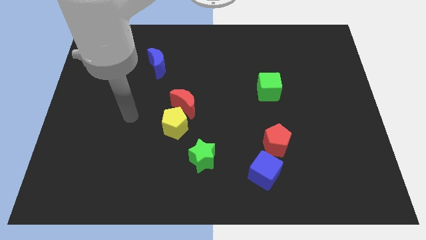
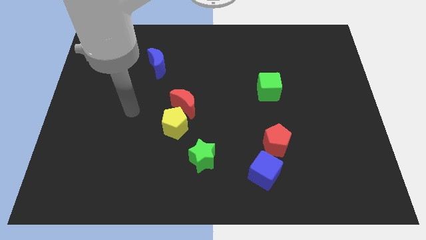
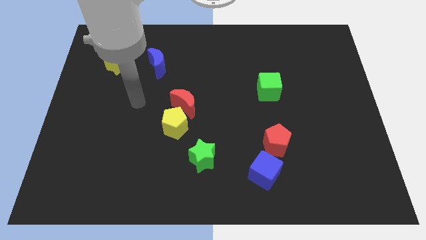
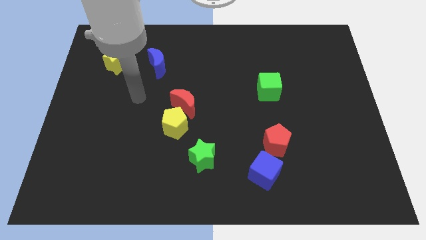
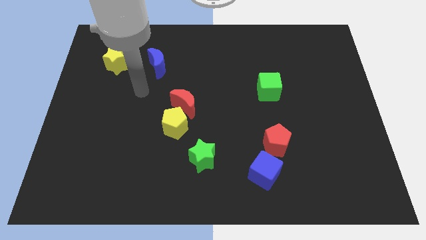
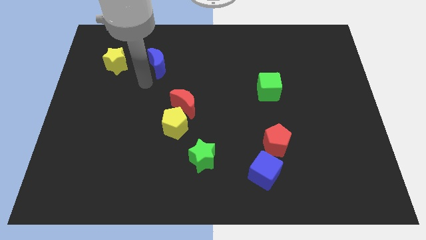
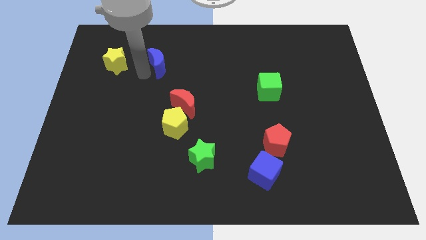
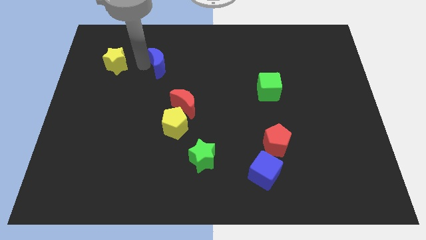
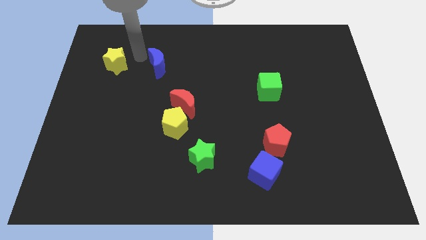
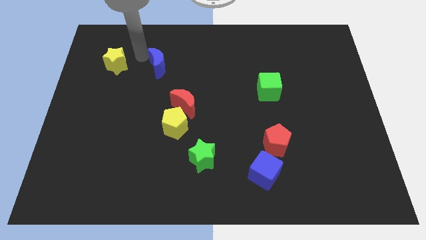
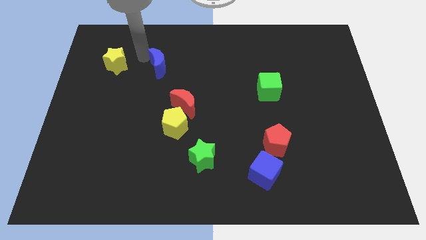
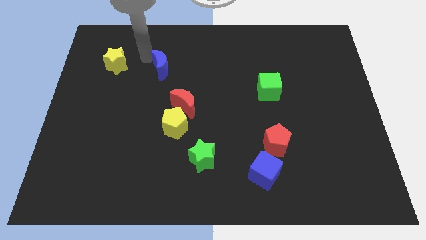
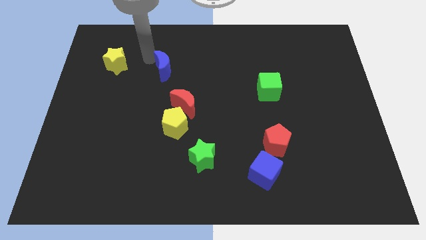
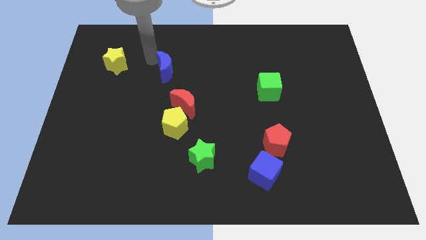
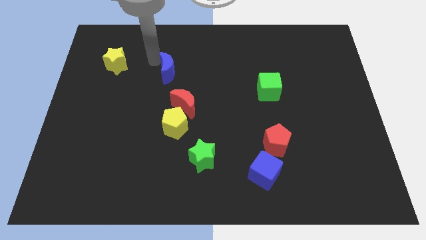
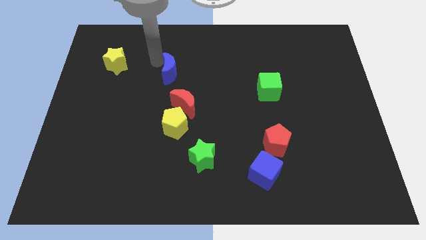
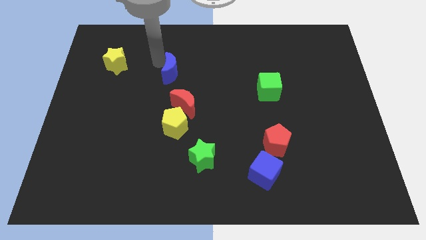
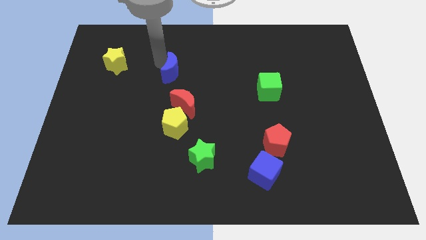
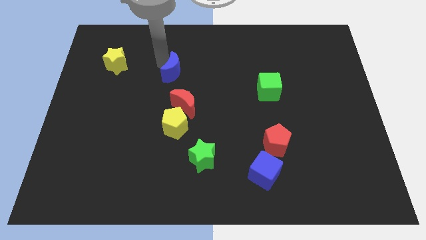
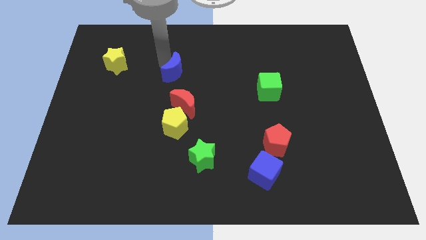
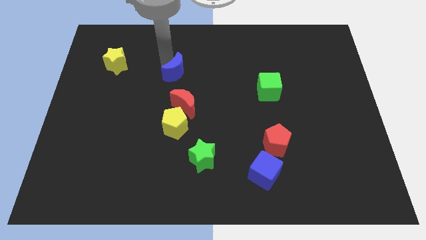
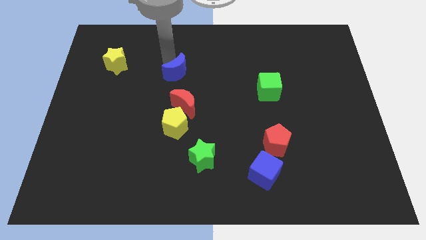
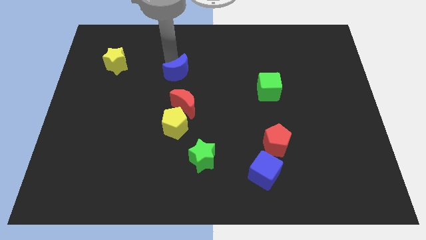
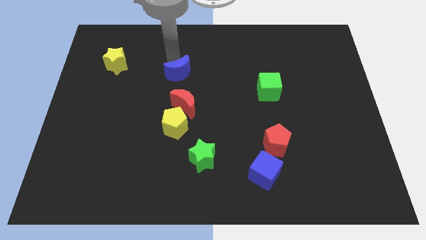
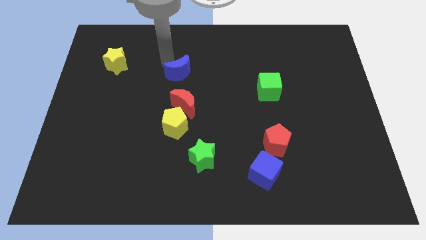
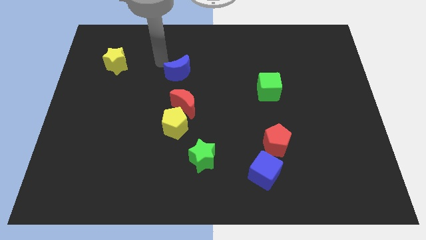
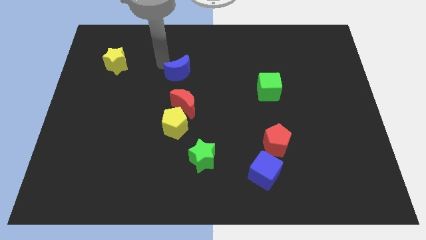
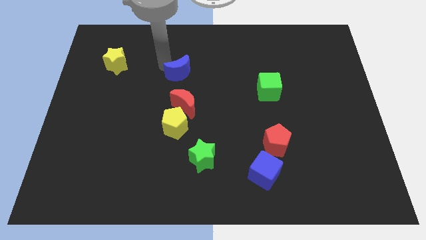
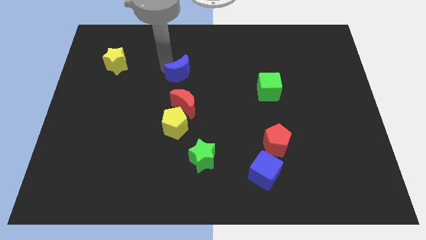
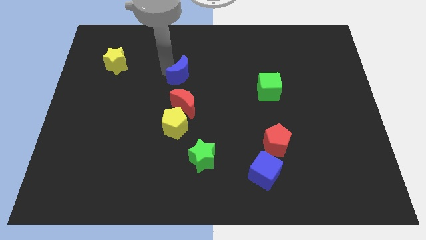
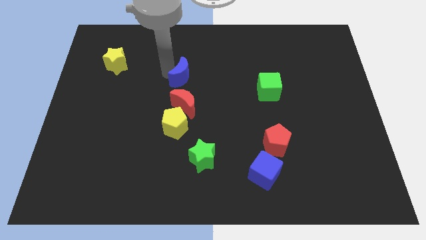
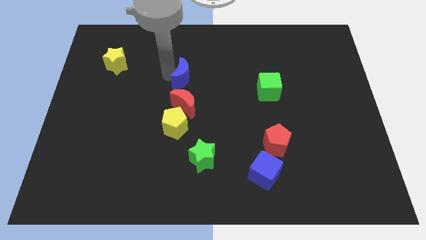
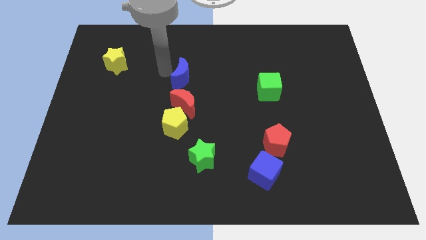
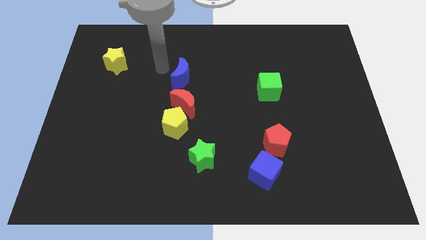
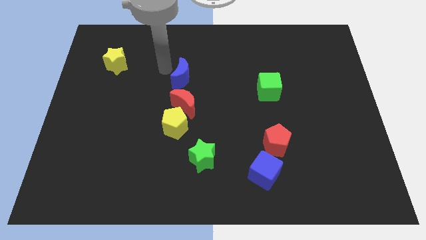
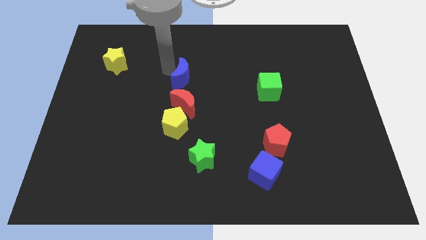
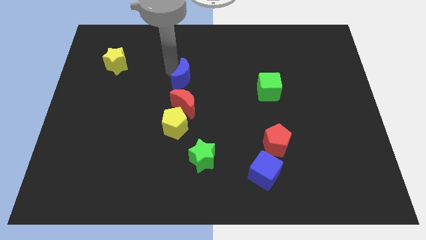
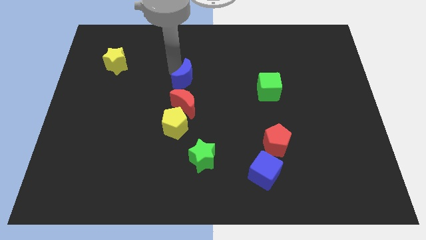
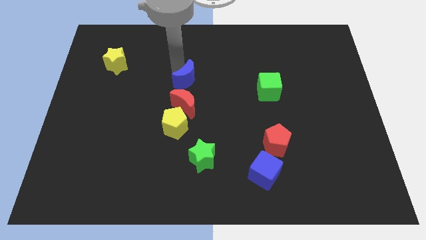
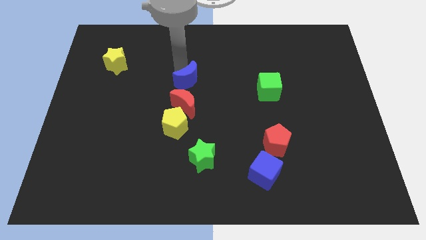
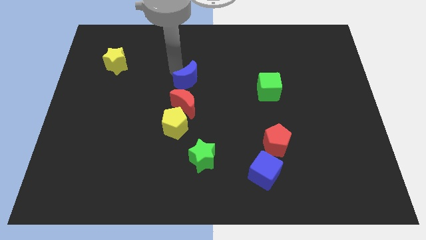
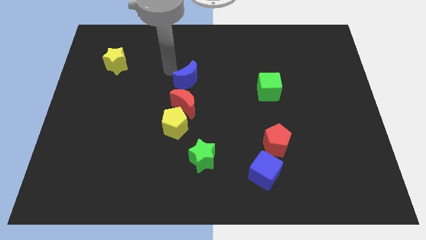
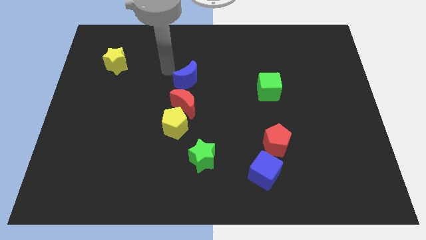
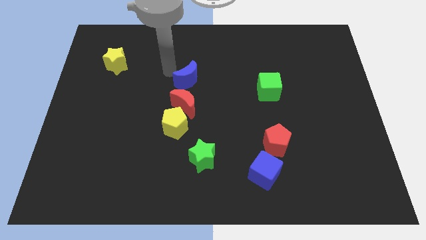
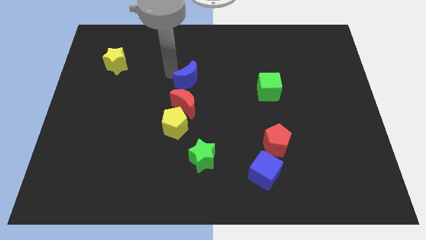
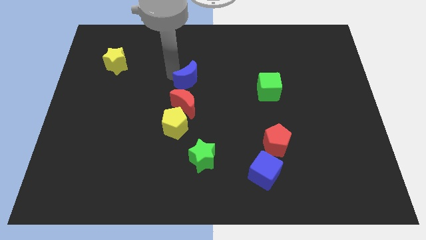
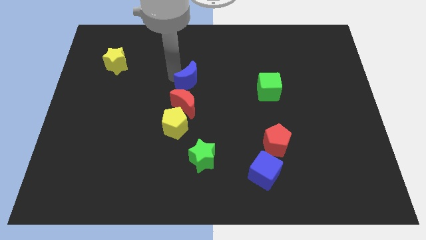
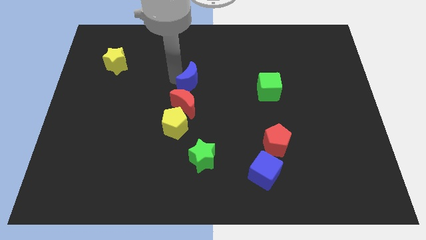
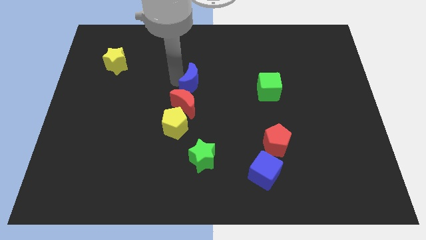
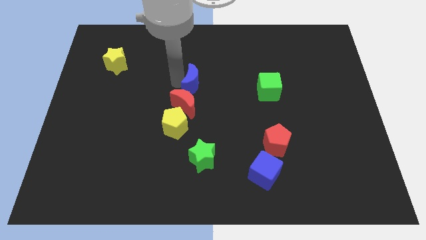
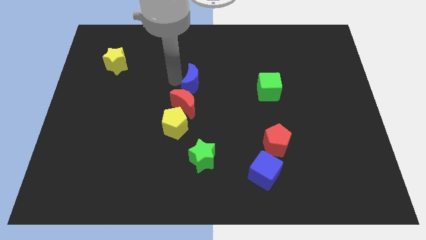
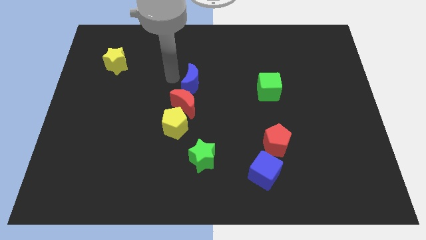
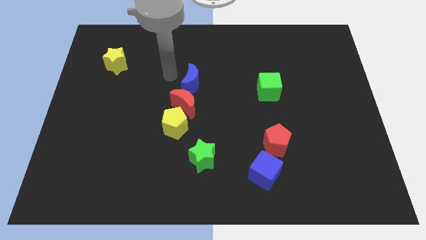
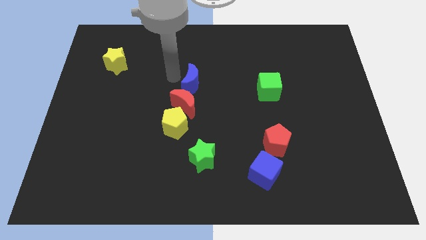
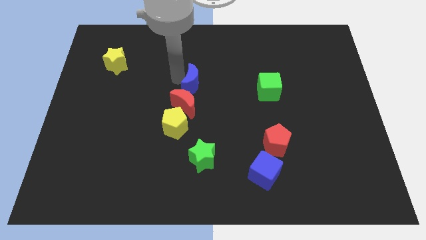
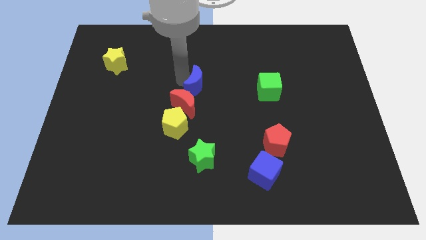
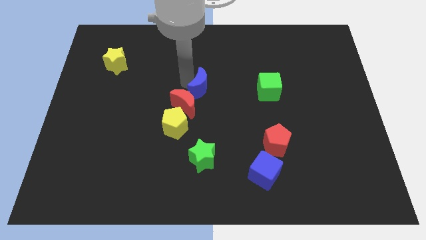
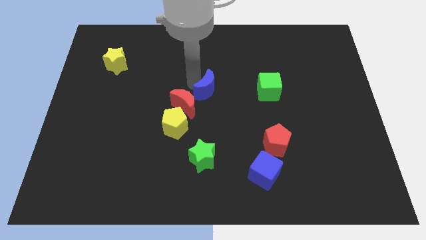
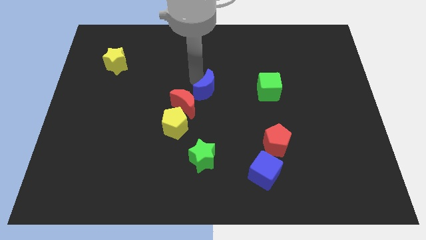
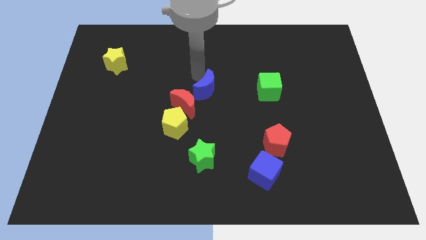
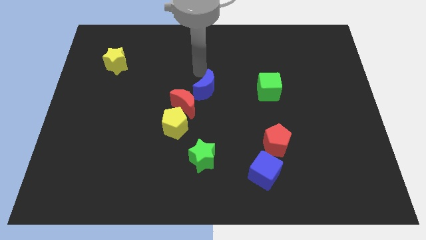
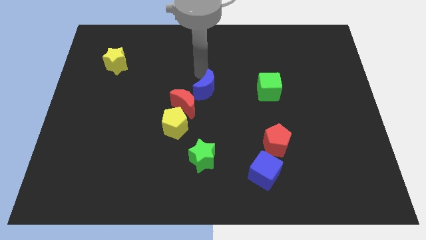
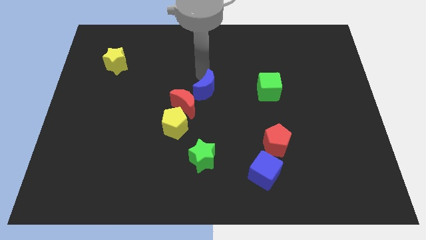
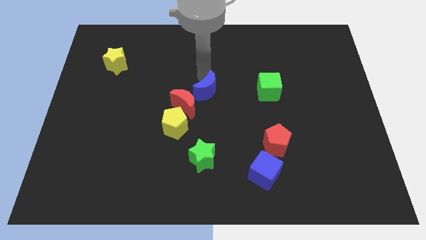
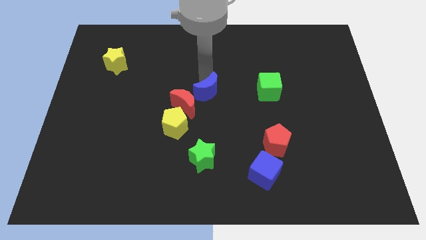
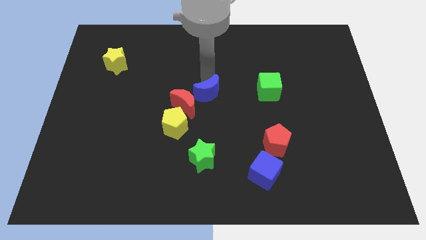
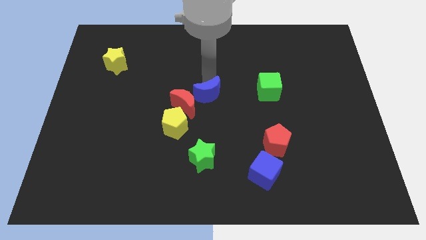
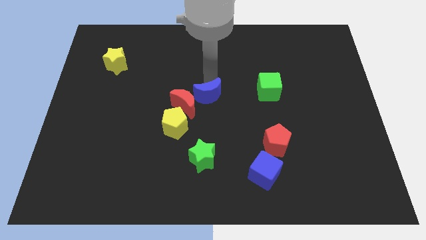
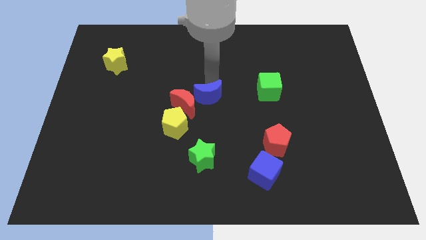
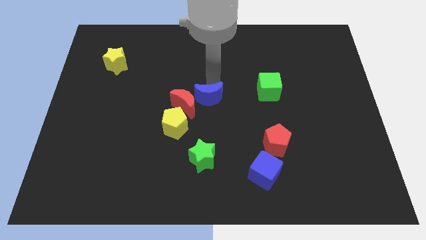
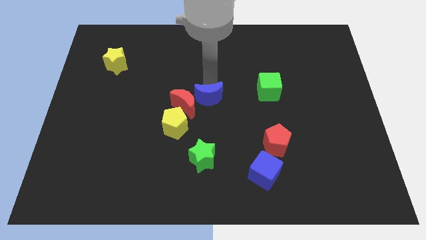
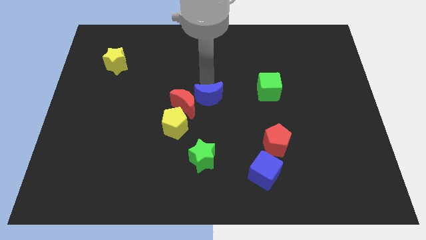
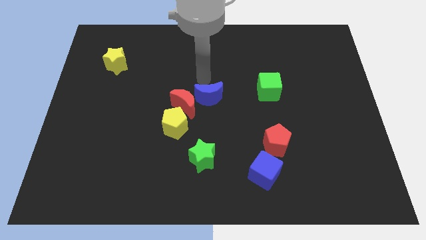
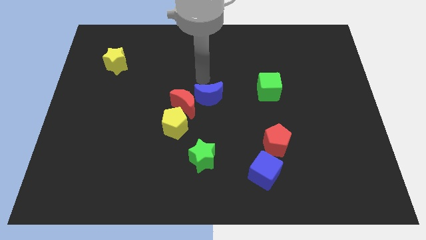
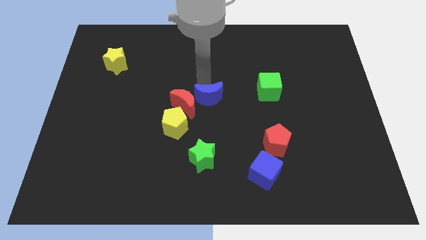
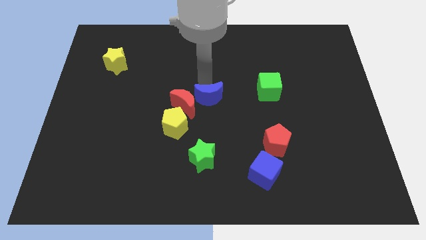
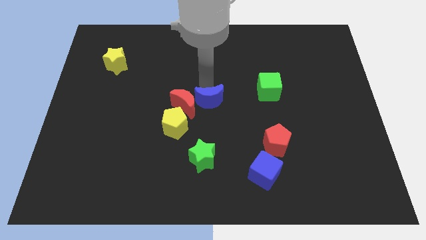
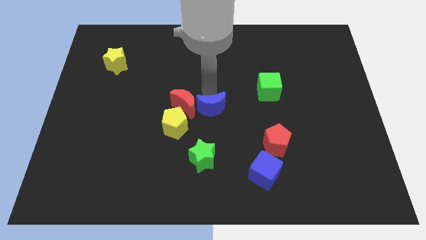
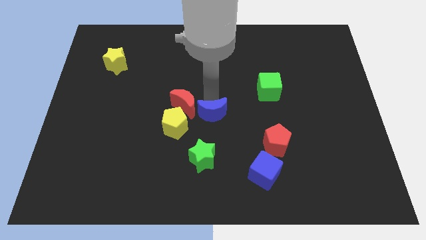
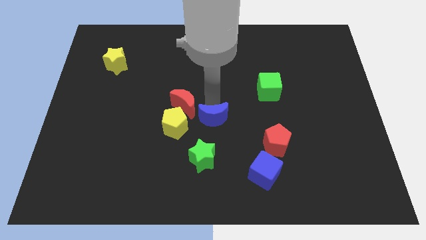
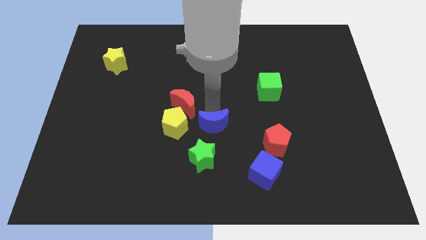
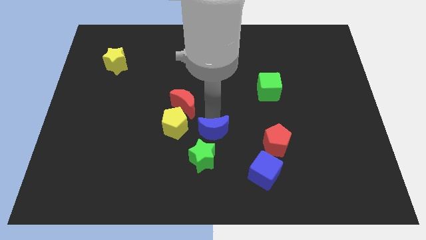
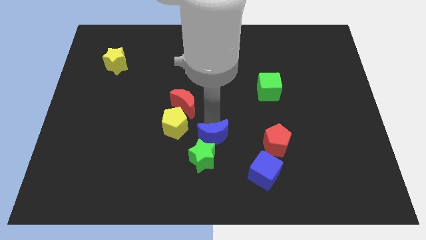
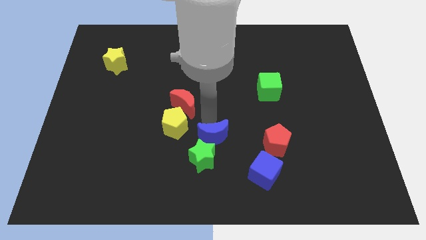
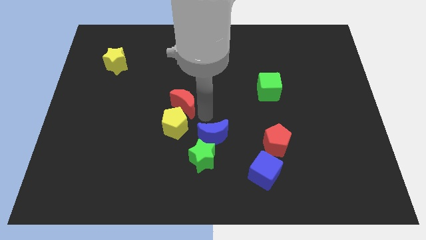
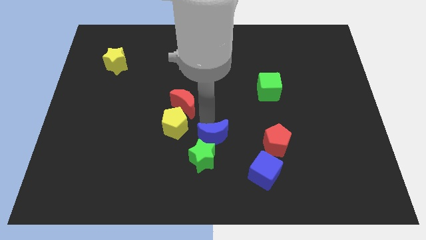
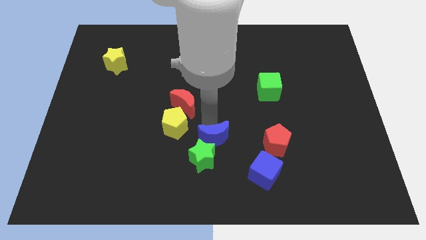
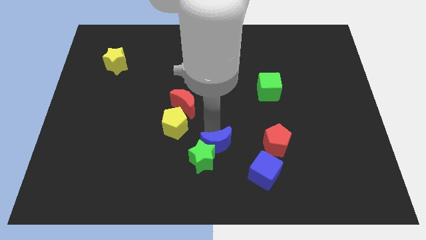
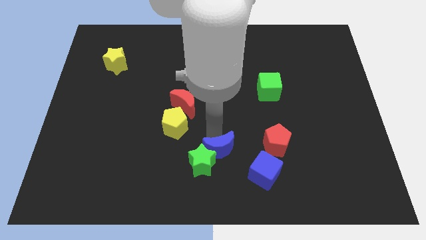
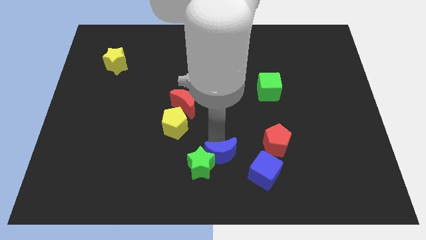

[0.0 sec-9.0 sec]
push the blue moon left of the blue cube
